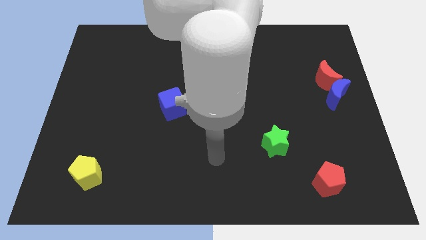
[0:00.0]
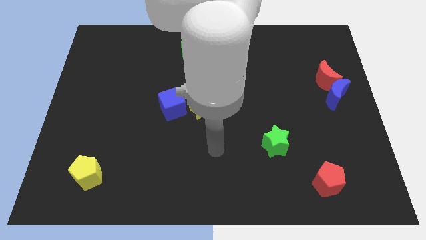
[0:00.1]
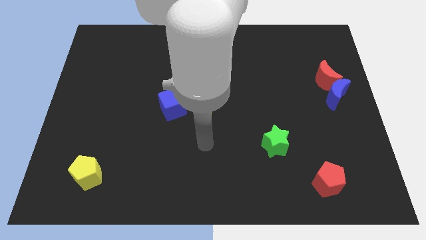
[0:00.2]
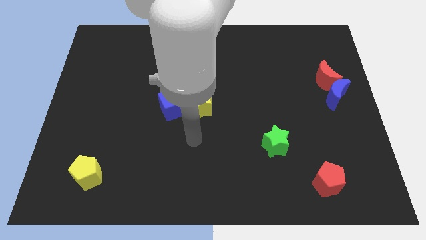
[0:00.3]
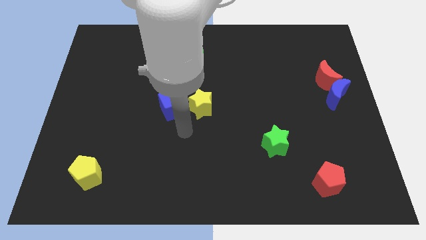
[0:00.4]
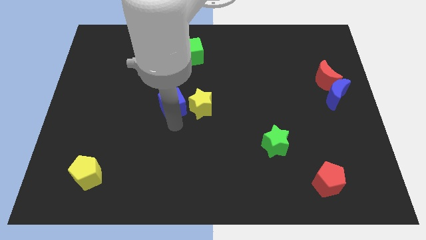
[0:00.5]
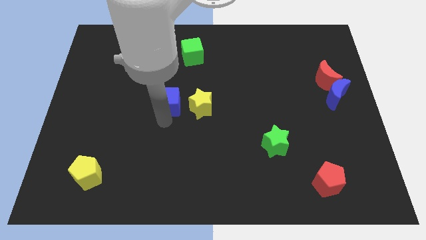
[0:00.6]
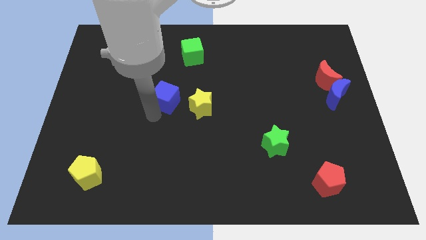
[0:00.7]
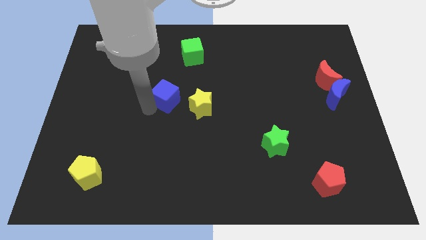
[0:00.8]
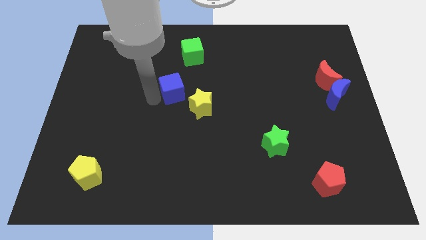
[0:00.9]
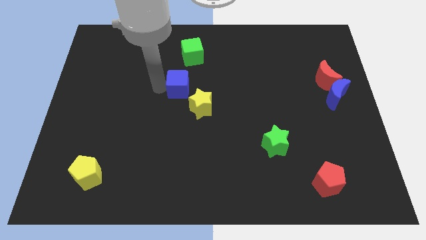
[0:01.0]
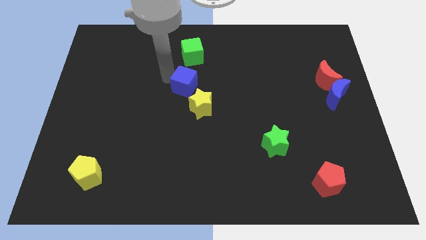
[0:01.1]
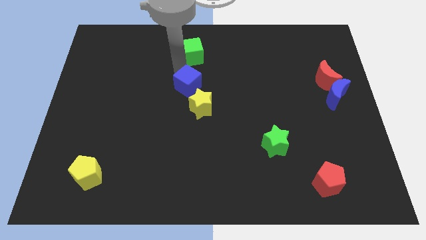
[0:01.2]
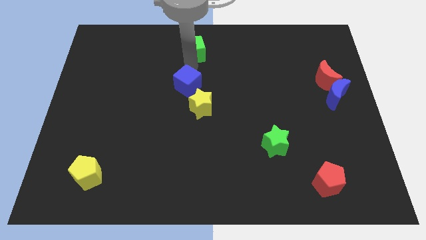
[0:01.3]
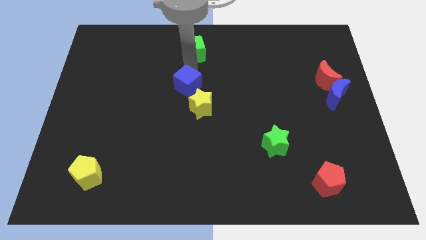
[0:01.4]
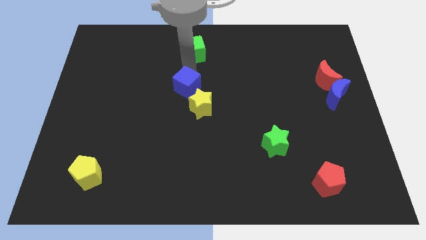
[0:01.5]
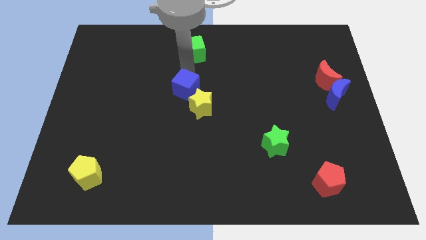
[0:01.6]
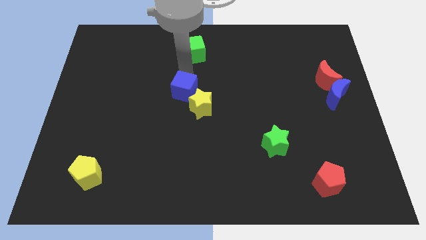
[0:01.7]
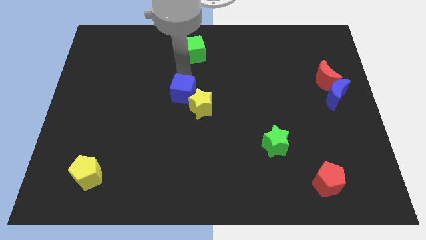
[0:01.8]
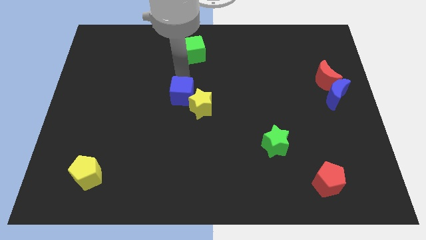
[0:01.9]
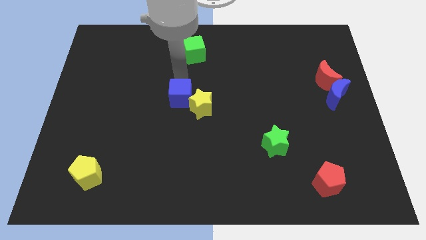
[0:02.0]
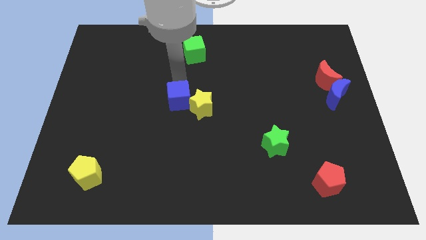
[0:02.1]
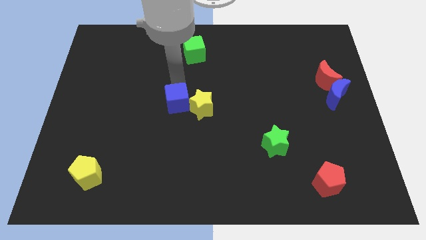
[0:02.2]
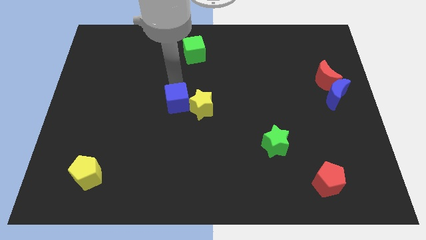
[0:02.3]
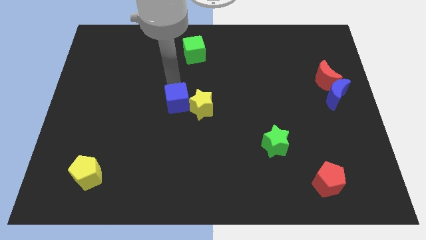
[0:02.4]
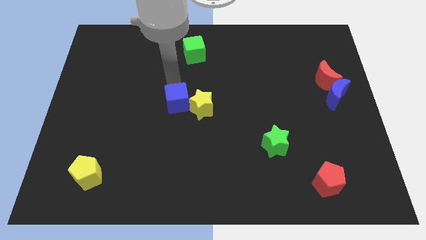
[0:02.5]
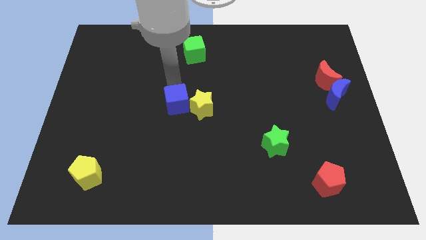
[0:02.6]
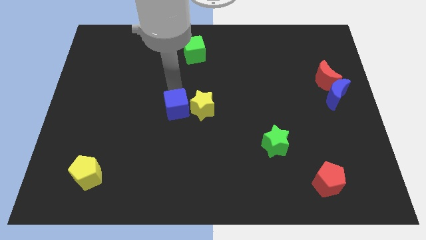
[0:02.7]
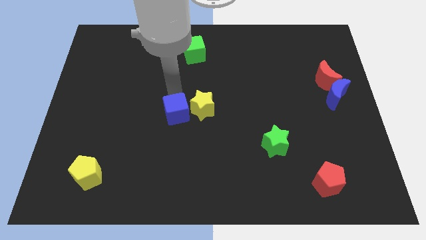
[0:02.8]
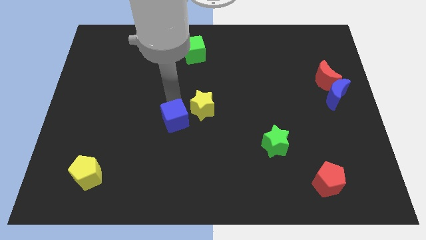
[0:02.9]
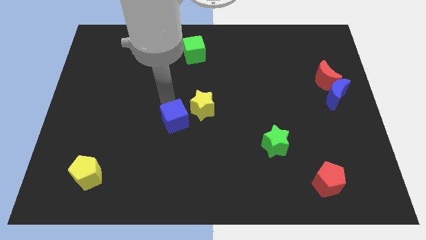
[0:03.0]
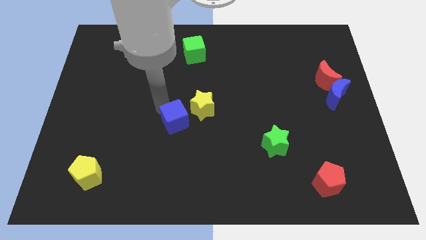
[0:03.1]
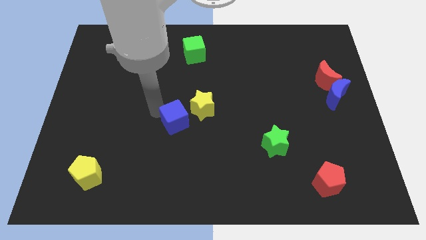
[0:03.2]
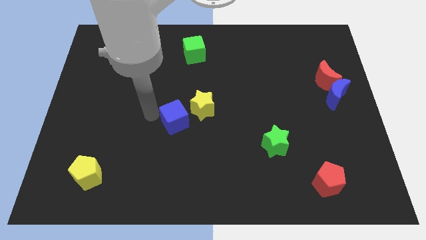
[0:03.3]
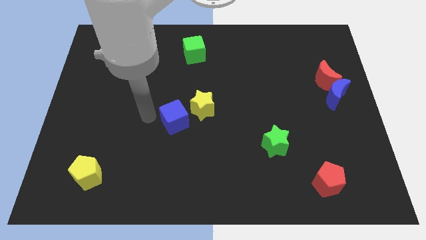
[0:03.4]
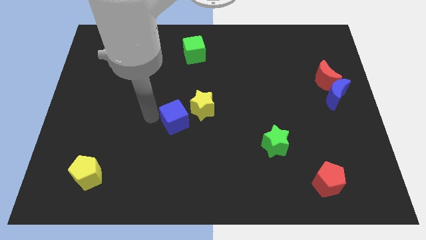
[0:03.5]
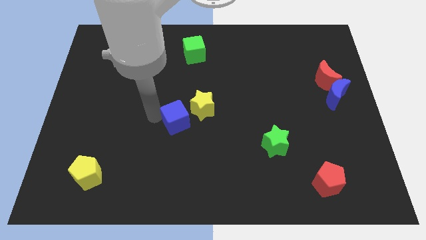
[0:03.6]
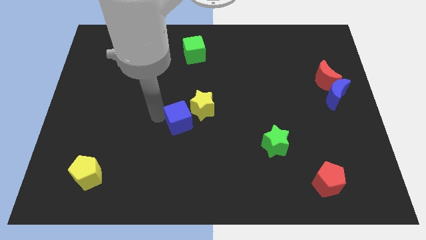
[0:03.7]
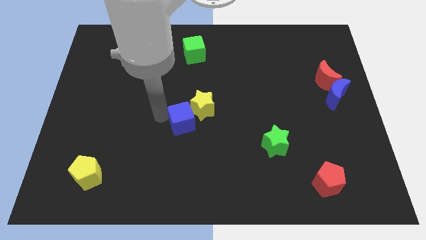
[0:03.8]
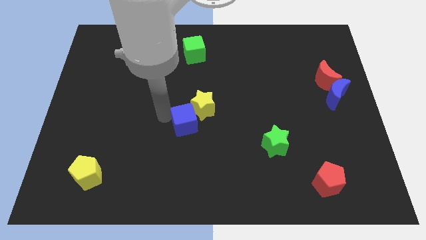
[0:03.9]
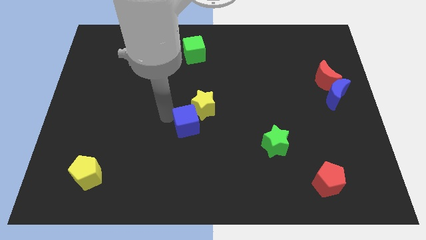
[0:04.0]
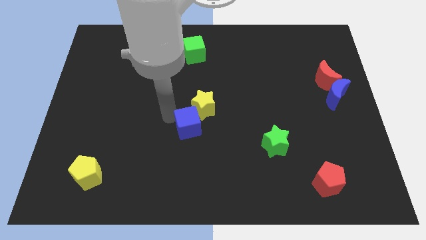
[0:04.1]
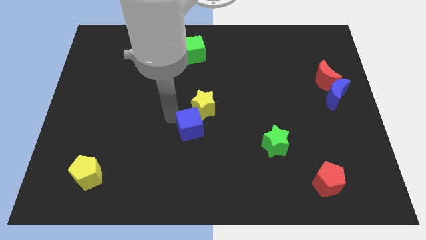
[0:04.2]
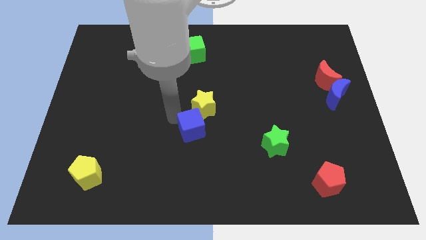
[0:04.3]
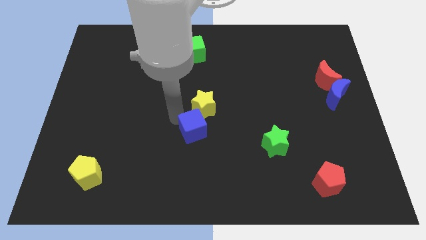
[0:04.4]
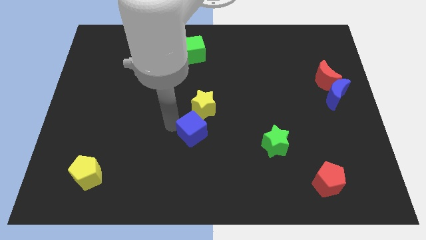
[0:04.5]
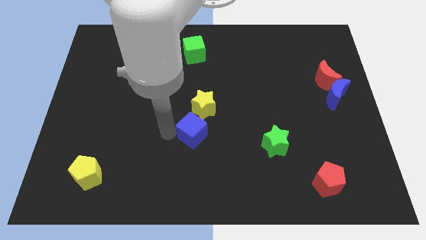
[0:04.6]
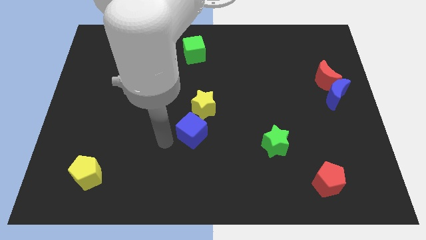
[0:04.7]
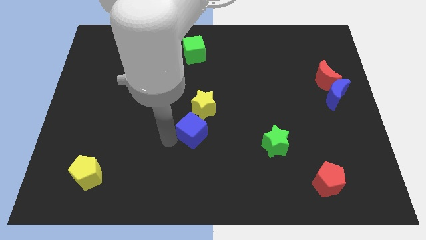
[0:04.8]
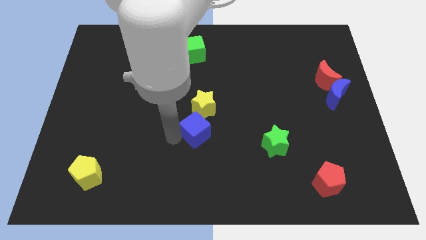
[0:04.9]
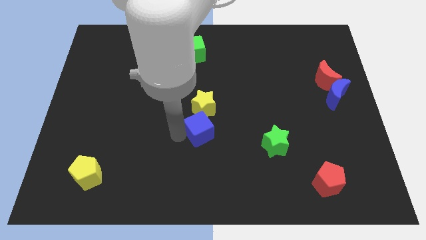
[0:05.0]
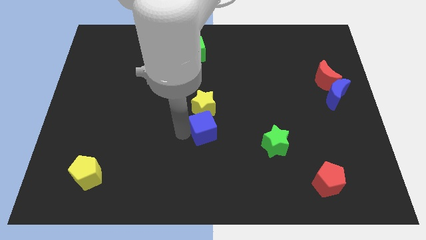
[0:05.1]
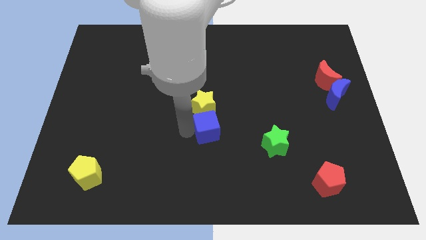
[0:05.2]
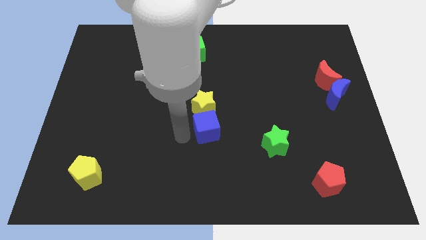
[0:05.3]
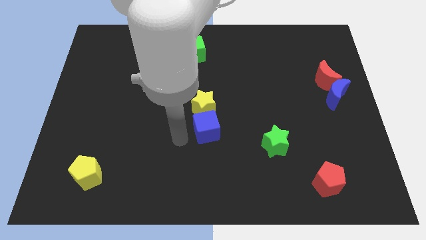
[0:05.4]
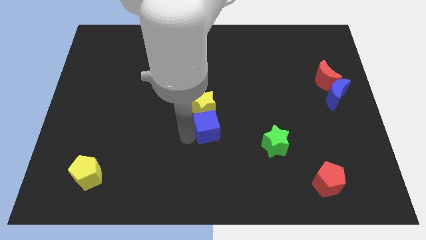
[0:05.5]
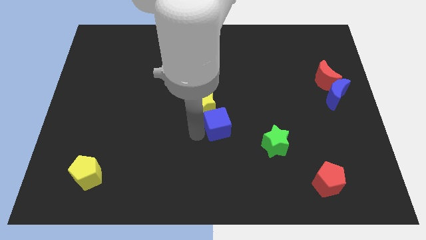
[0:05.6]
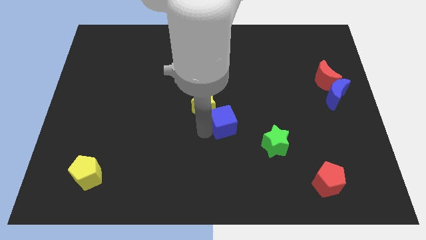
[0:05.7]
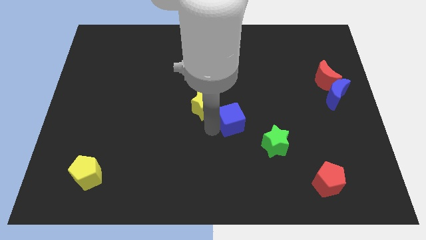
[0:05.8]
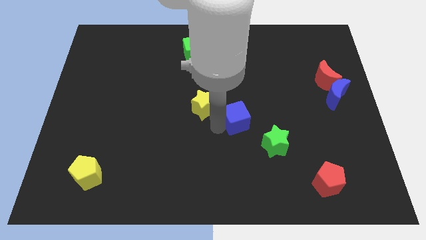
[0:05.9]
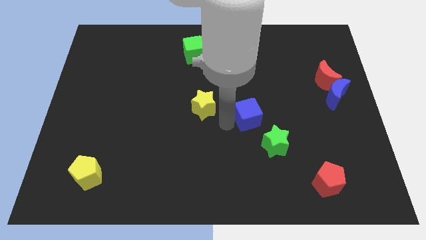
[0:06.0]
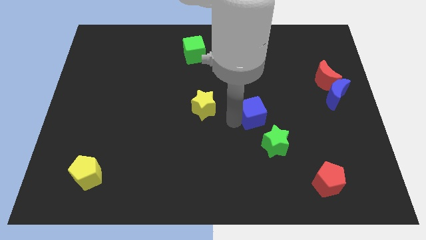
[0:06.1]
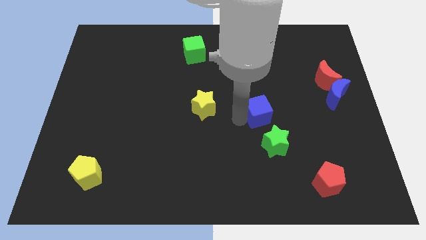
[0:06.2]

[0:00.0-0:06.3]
push the blue cube right

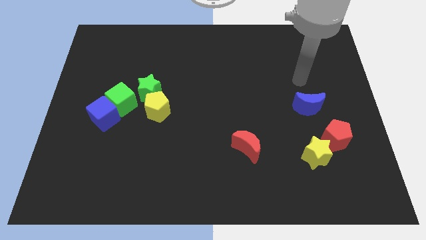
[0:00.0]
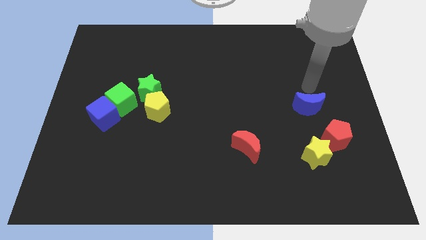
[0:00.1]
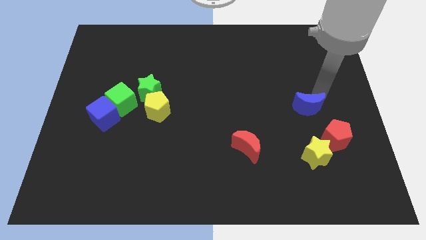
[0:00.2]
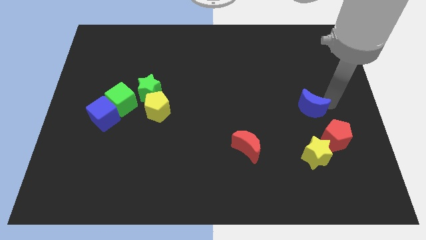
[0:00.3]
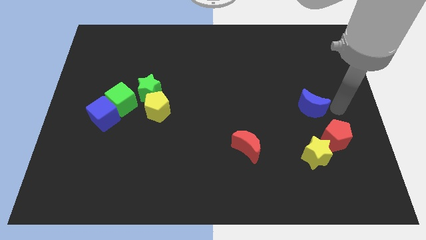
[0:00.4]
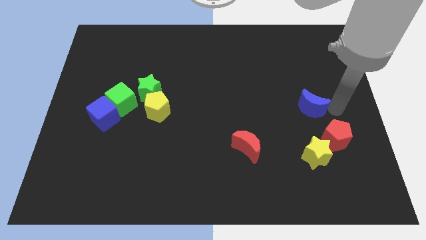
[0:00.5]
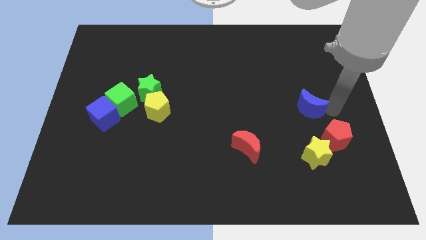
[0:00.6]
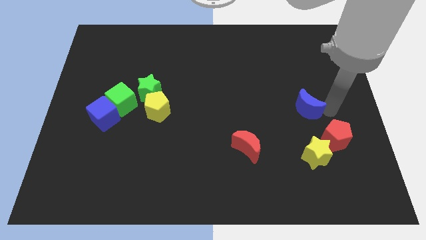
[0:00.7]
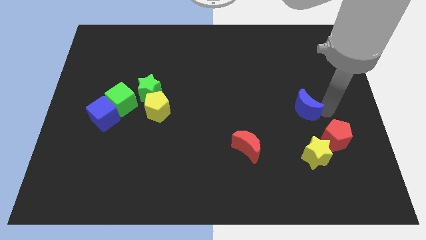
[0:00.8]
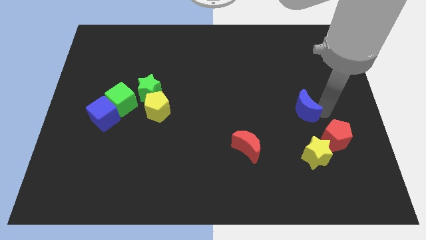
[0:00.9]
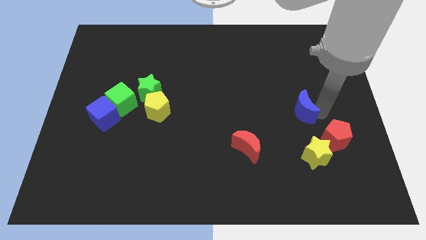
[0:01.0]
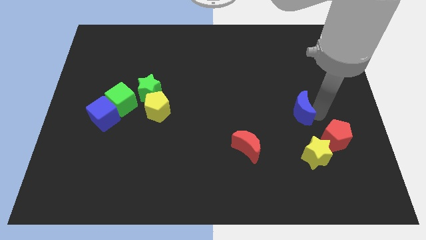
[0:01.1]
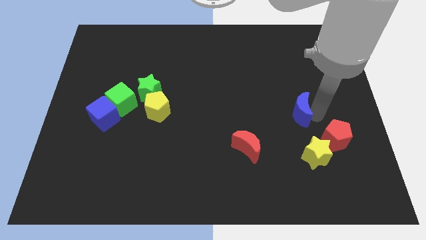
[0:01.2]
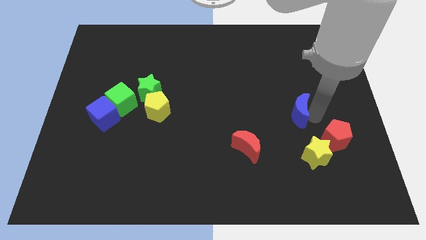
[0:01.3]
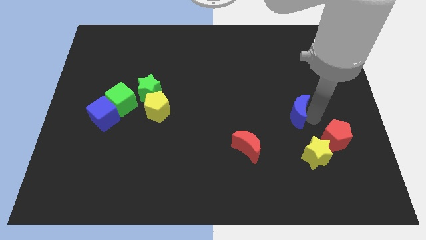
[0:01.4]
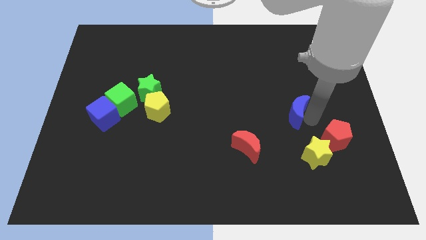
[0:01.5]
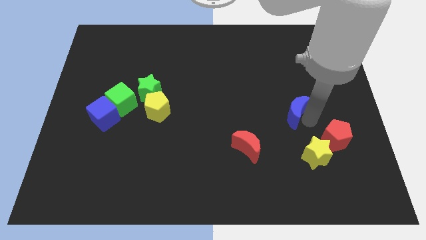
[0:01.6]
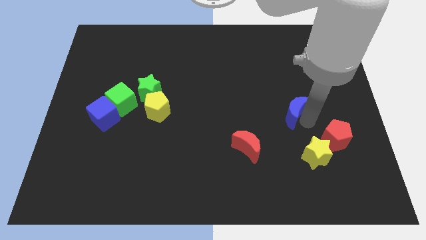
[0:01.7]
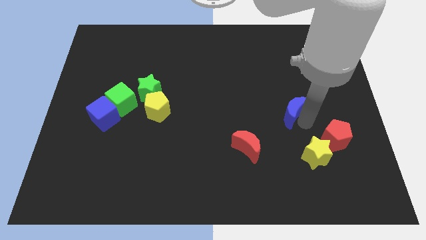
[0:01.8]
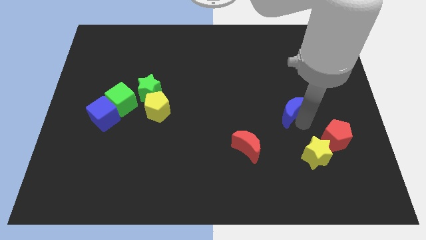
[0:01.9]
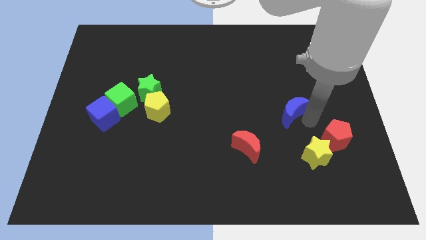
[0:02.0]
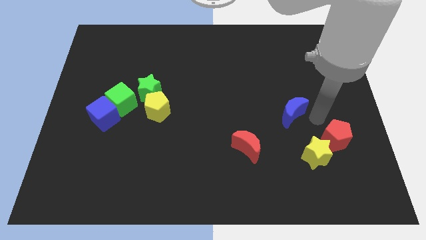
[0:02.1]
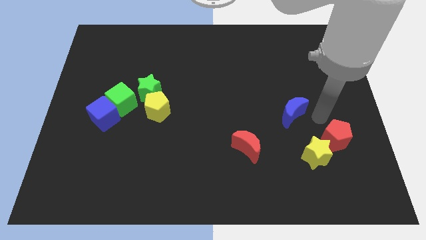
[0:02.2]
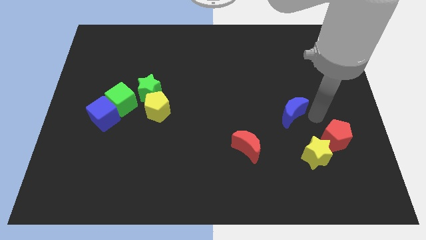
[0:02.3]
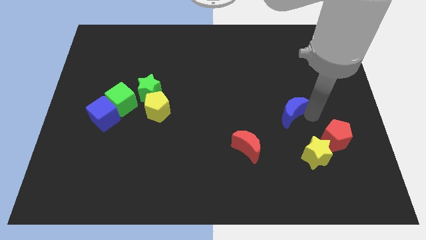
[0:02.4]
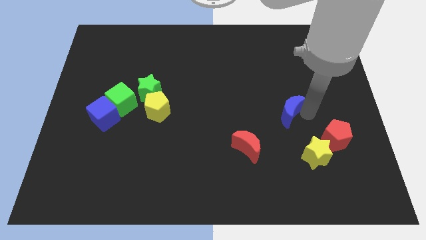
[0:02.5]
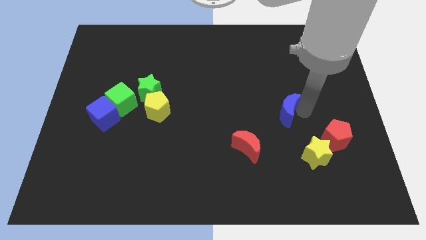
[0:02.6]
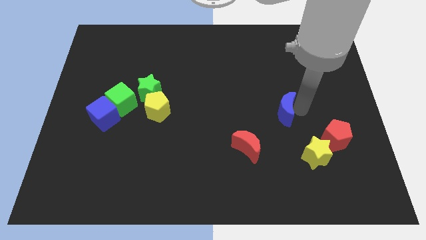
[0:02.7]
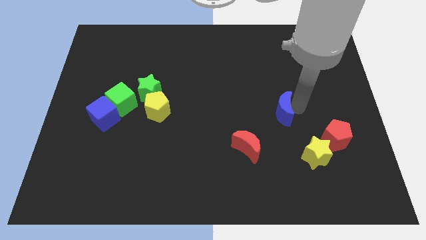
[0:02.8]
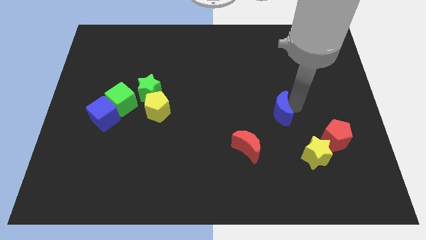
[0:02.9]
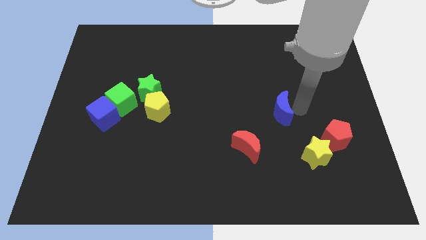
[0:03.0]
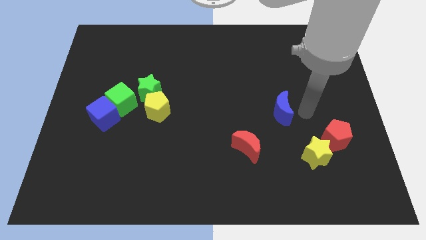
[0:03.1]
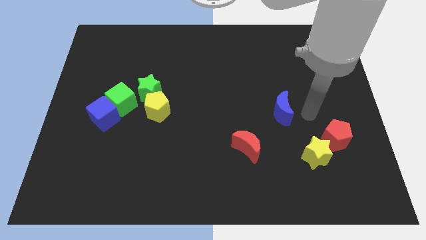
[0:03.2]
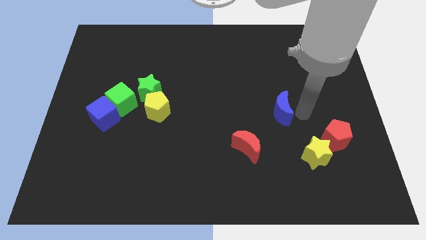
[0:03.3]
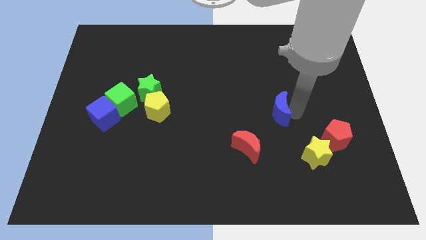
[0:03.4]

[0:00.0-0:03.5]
slightly slide the blue moon left
